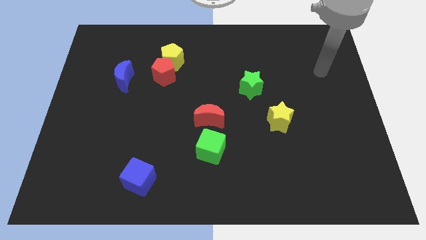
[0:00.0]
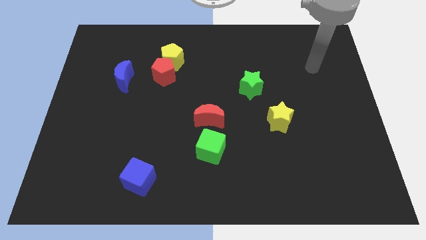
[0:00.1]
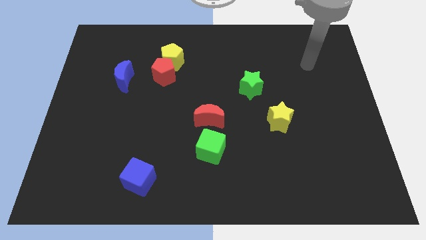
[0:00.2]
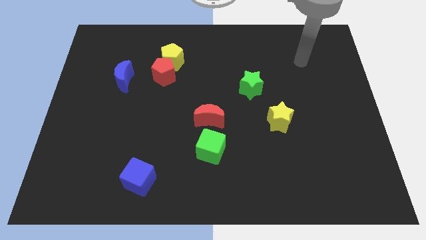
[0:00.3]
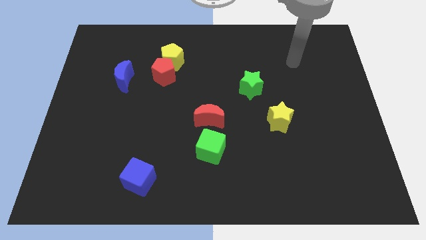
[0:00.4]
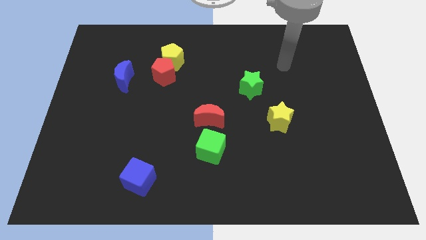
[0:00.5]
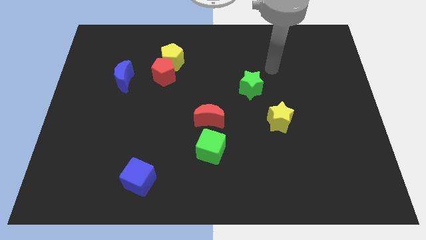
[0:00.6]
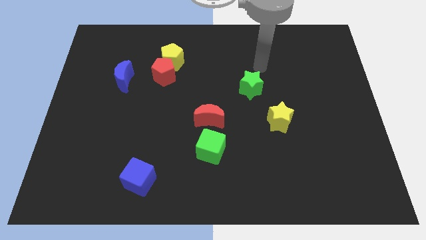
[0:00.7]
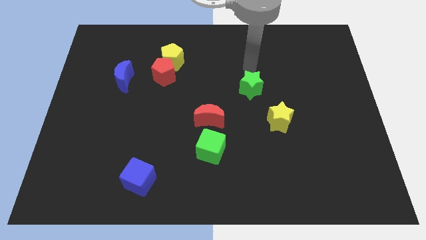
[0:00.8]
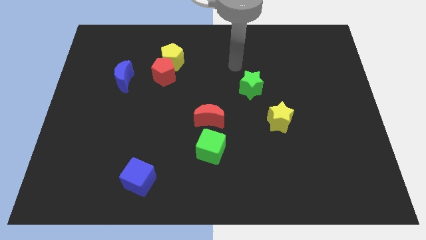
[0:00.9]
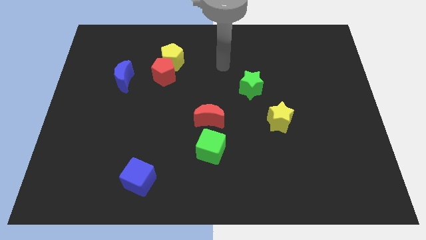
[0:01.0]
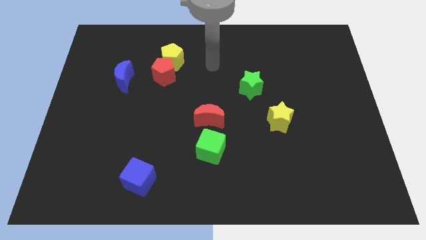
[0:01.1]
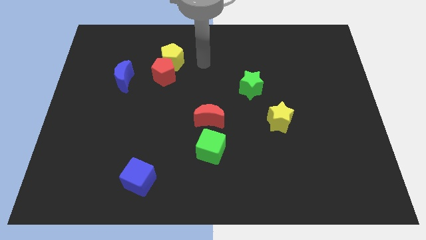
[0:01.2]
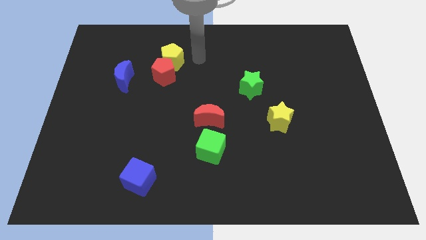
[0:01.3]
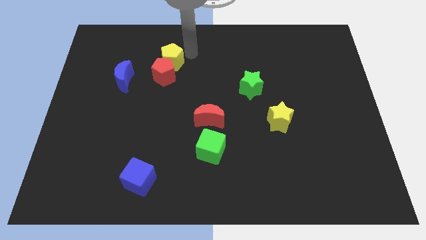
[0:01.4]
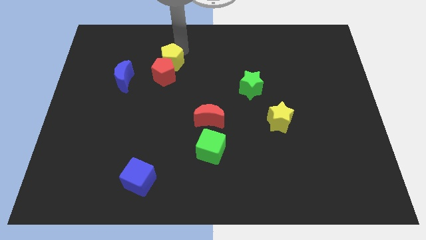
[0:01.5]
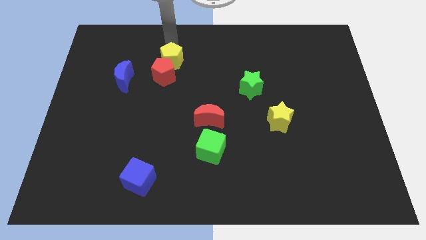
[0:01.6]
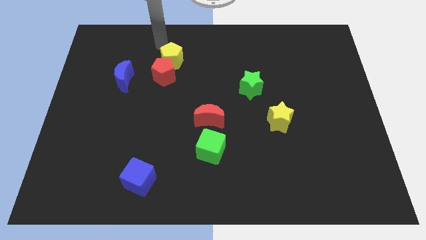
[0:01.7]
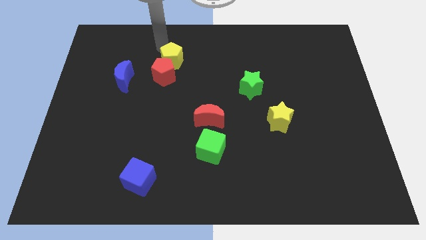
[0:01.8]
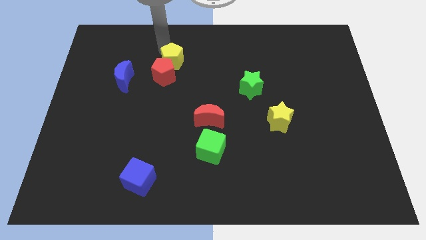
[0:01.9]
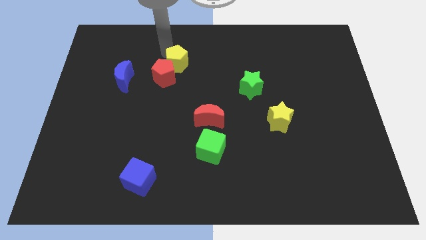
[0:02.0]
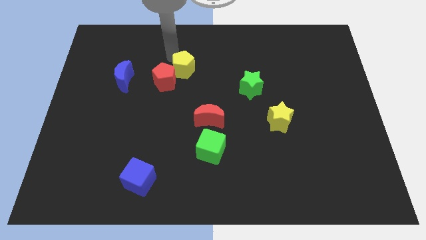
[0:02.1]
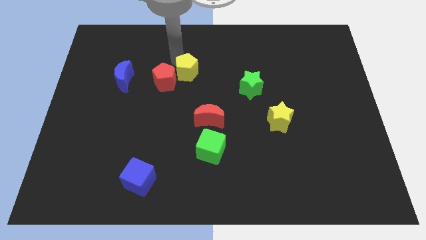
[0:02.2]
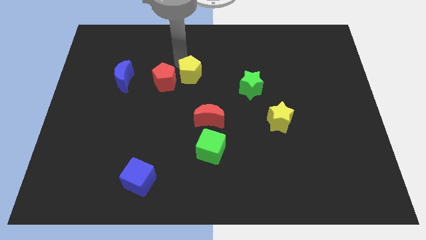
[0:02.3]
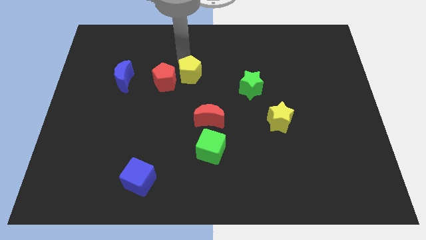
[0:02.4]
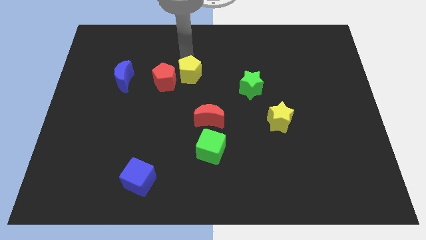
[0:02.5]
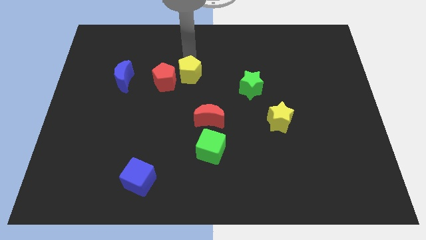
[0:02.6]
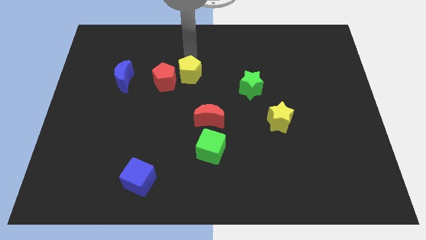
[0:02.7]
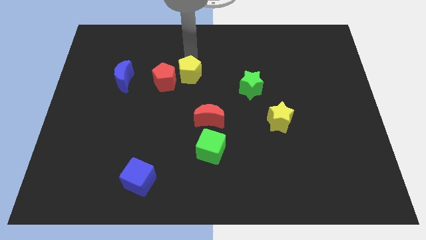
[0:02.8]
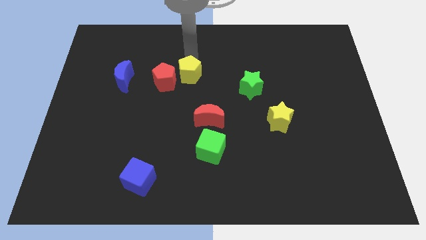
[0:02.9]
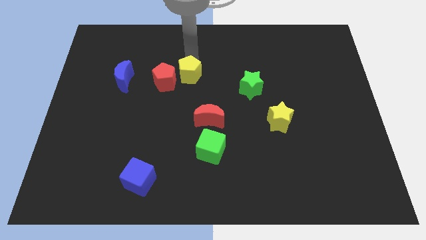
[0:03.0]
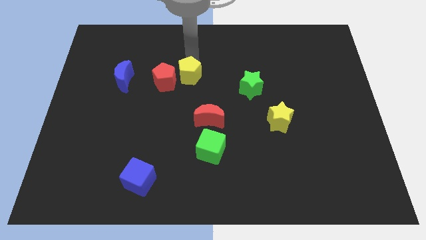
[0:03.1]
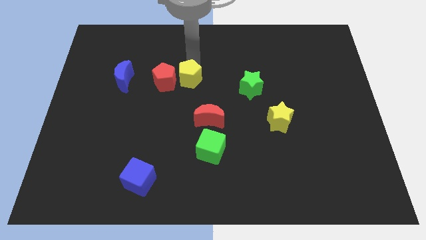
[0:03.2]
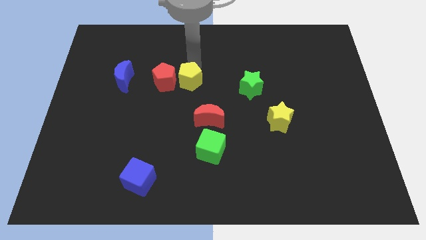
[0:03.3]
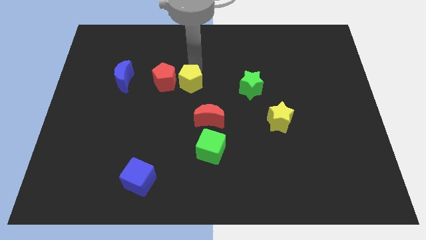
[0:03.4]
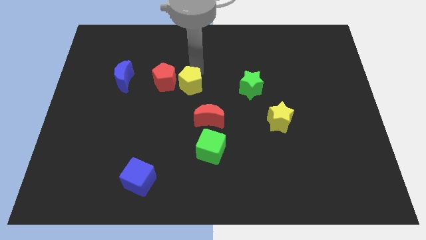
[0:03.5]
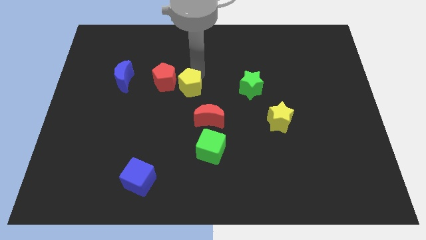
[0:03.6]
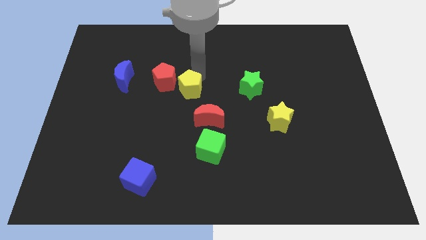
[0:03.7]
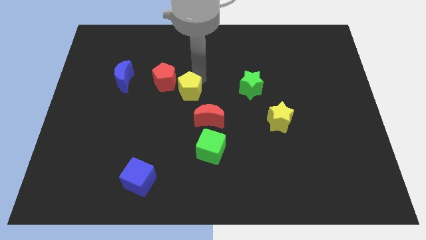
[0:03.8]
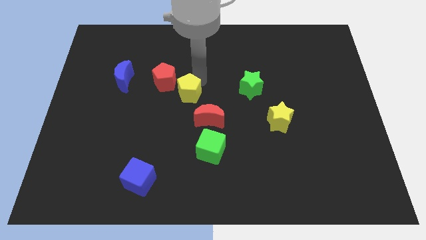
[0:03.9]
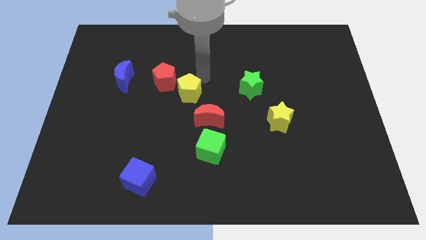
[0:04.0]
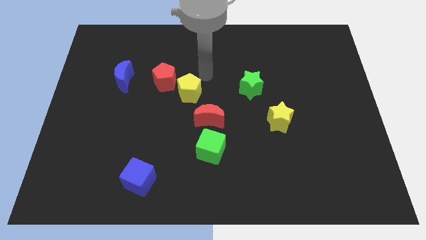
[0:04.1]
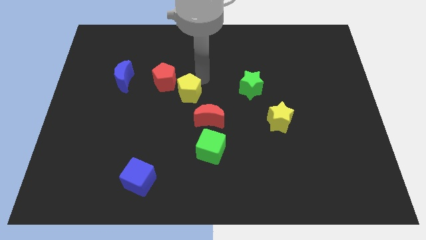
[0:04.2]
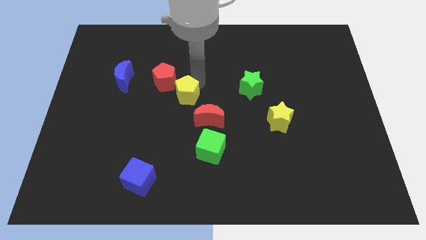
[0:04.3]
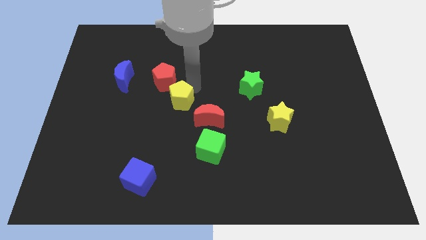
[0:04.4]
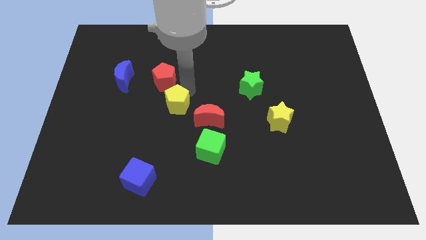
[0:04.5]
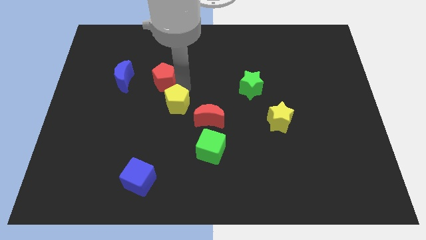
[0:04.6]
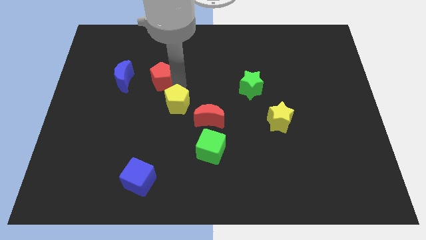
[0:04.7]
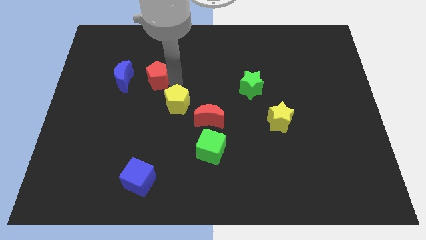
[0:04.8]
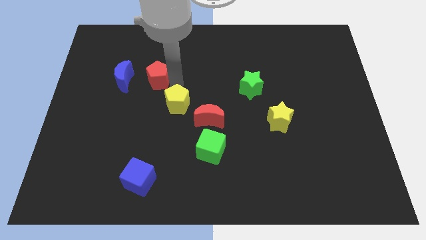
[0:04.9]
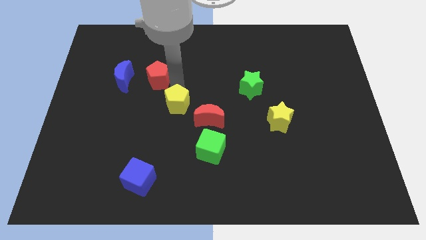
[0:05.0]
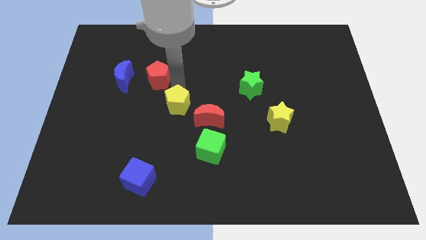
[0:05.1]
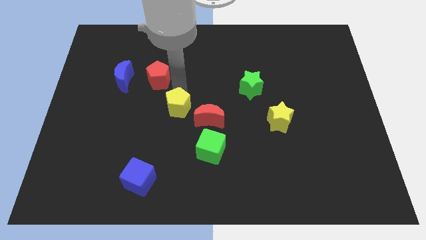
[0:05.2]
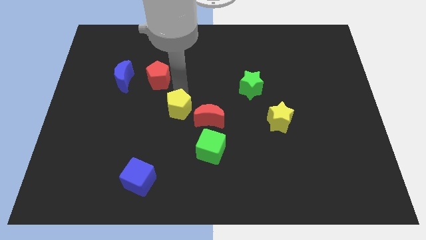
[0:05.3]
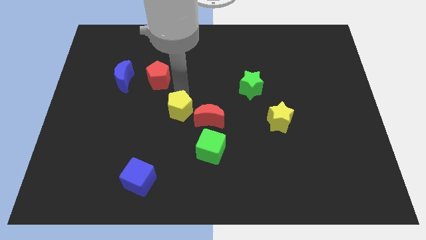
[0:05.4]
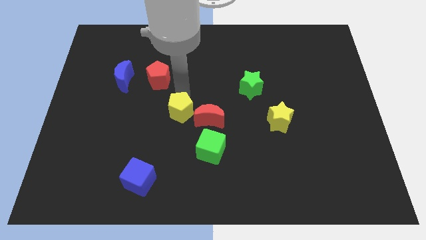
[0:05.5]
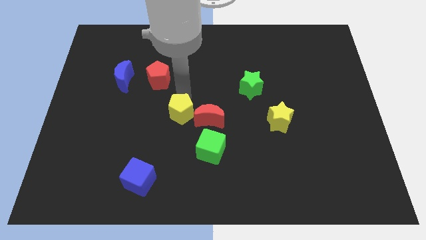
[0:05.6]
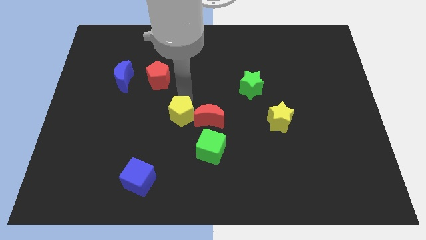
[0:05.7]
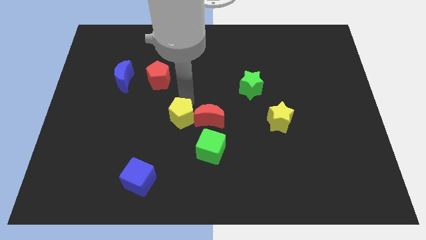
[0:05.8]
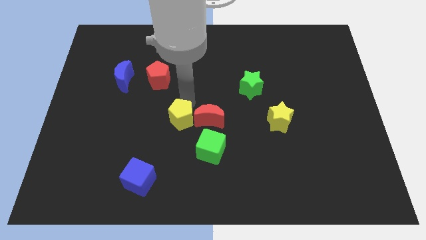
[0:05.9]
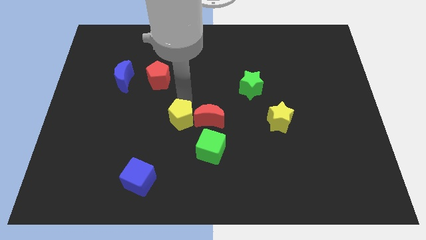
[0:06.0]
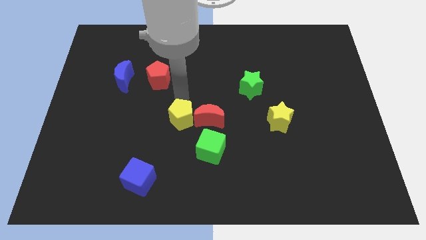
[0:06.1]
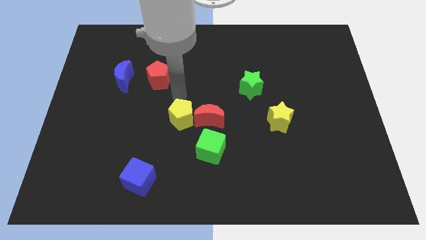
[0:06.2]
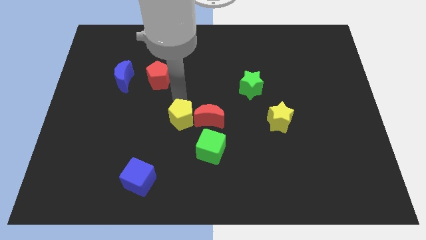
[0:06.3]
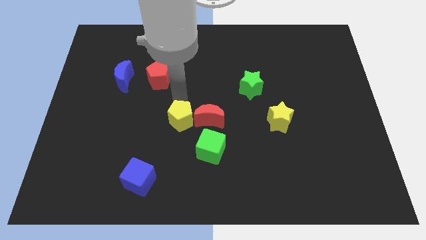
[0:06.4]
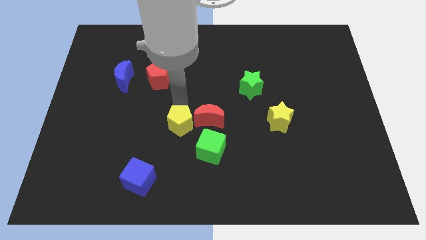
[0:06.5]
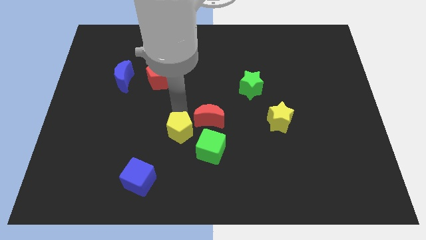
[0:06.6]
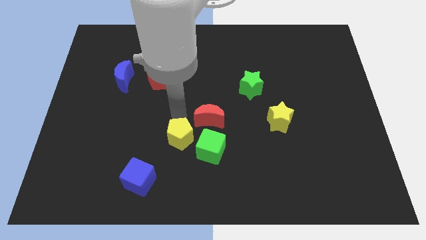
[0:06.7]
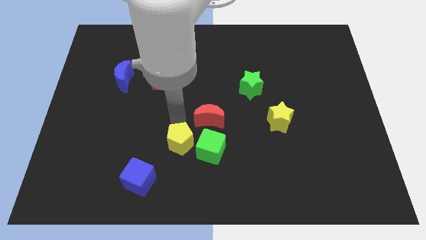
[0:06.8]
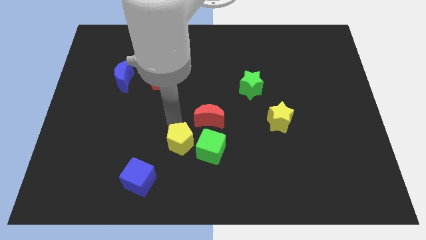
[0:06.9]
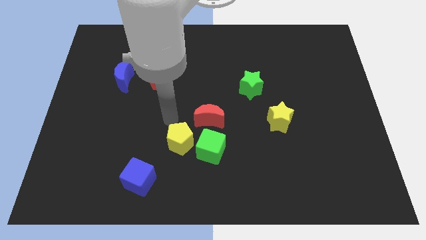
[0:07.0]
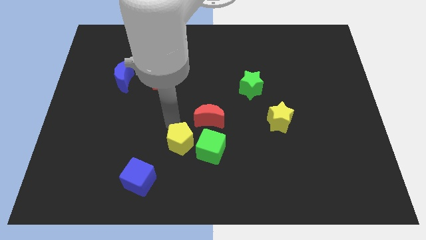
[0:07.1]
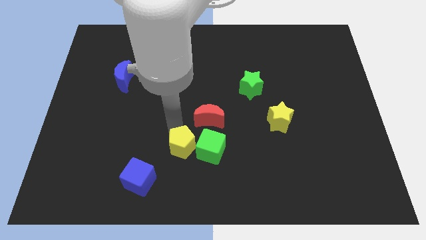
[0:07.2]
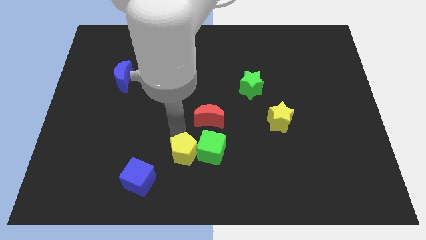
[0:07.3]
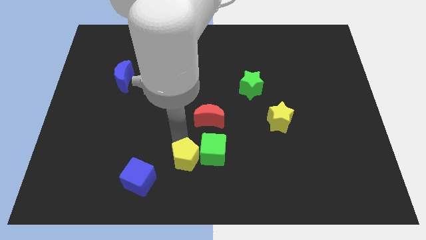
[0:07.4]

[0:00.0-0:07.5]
slide the yellow pentagon to the bottom side
